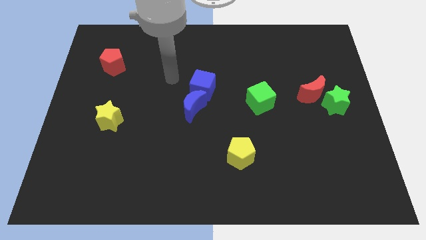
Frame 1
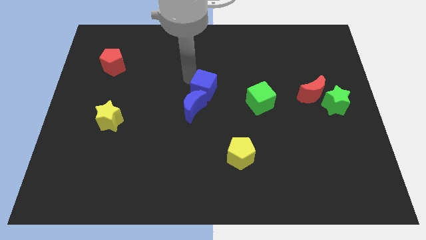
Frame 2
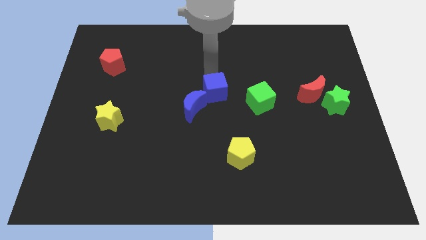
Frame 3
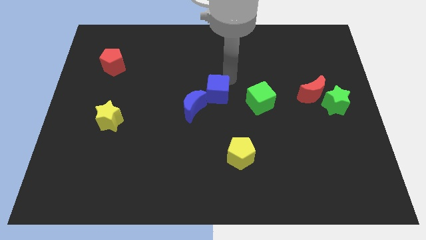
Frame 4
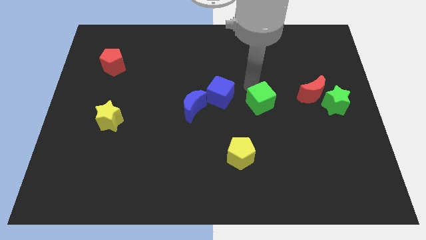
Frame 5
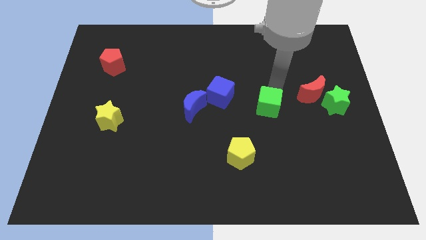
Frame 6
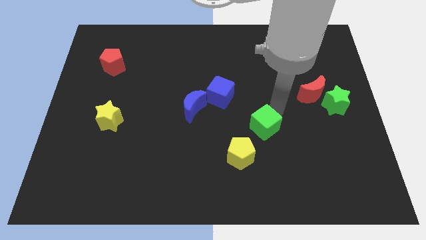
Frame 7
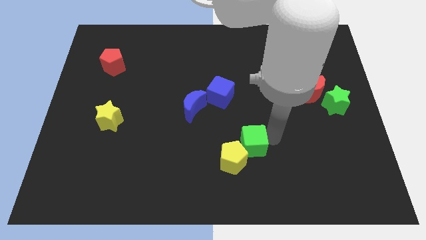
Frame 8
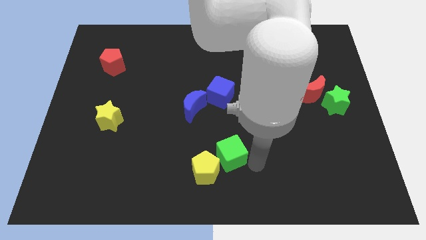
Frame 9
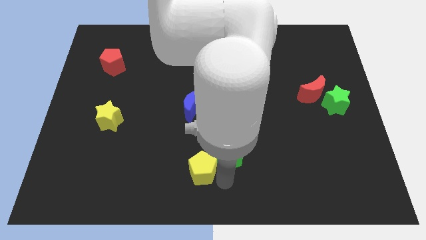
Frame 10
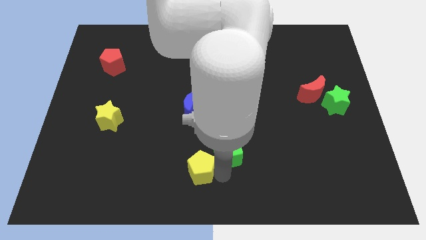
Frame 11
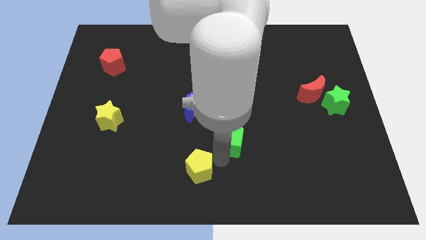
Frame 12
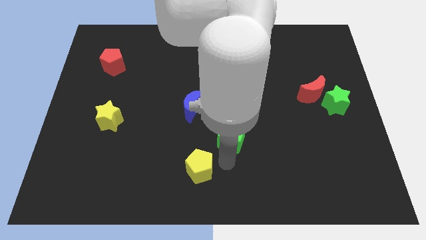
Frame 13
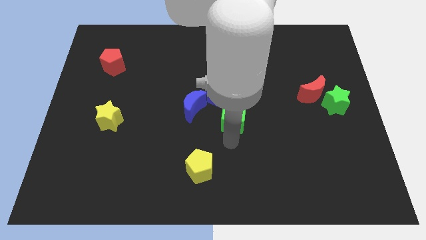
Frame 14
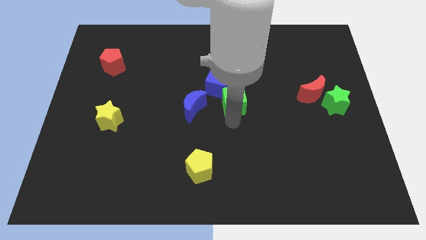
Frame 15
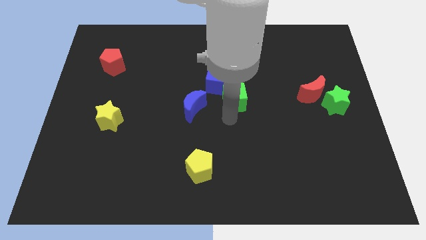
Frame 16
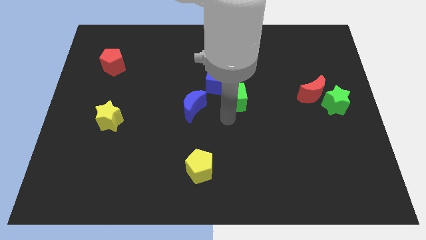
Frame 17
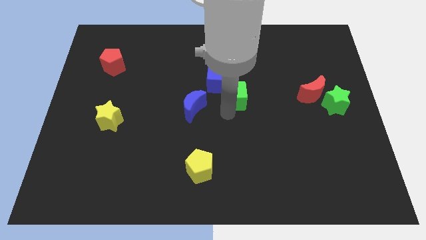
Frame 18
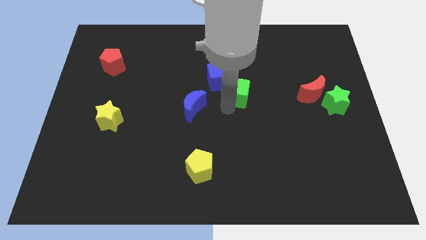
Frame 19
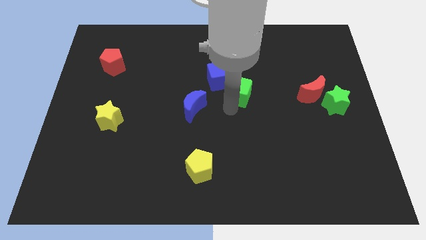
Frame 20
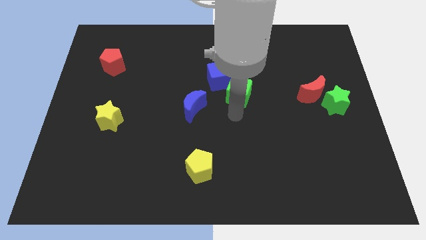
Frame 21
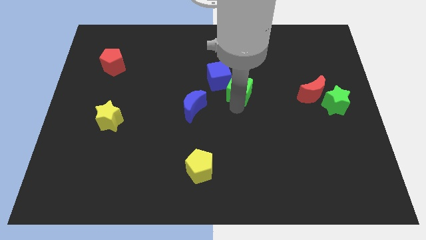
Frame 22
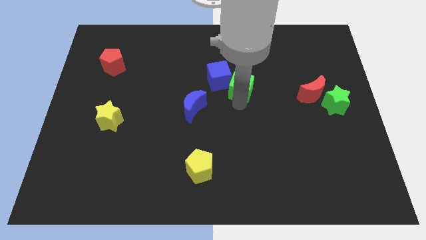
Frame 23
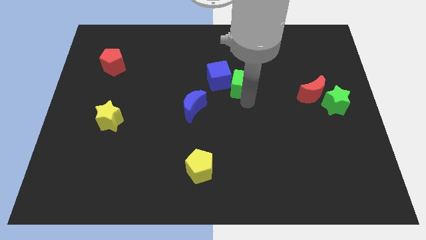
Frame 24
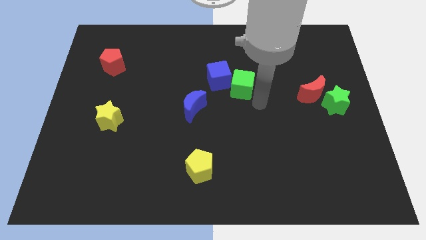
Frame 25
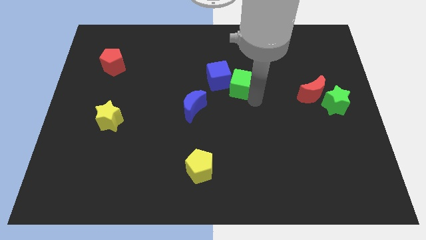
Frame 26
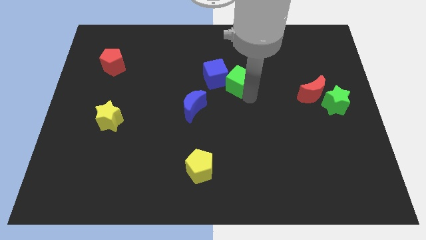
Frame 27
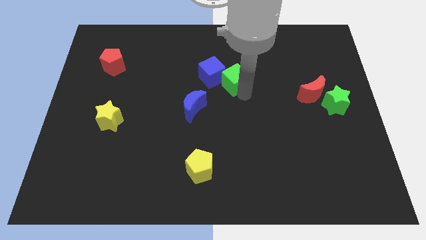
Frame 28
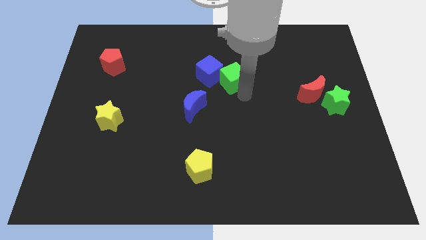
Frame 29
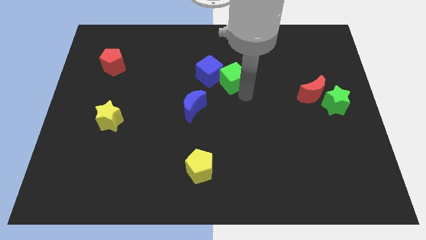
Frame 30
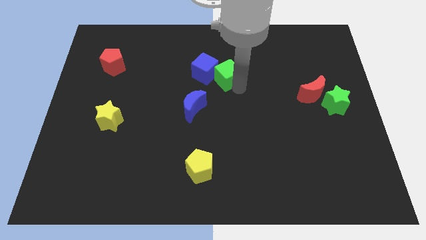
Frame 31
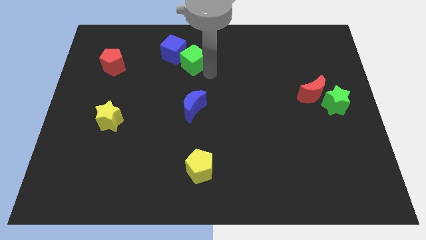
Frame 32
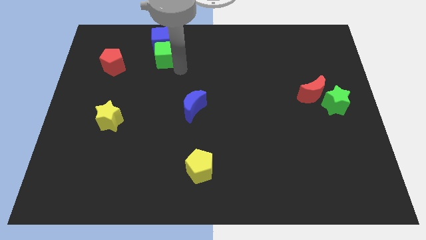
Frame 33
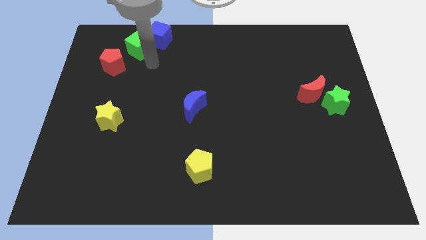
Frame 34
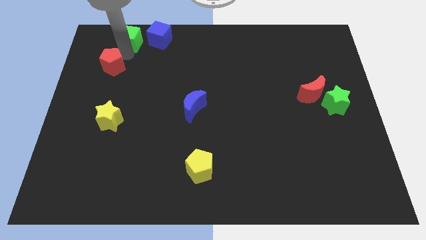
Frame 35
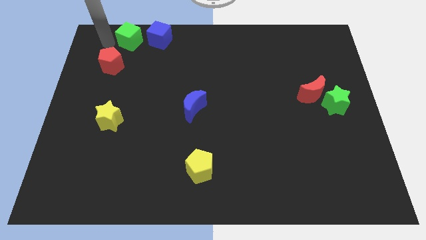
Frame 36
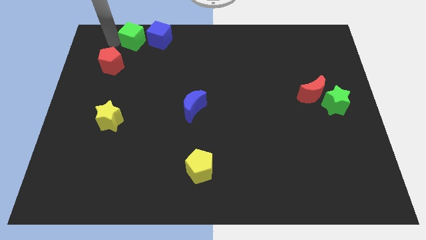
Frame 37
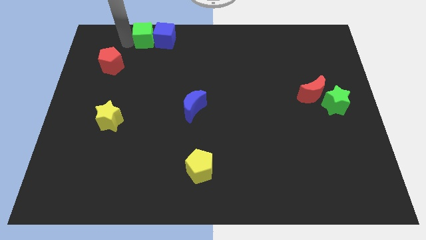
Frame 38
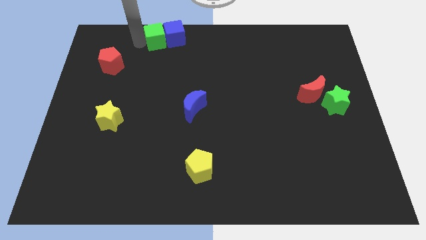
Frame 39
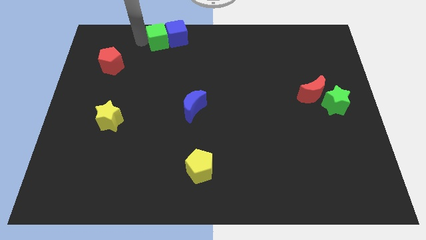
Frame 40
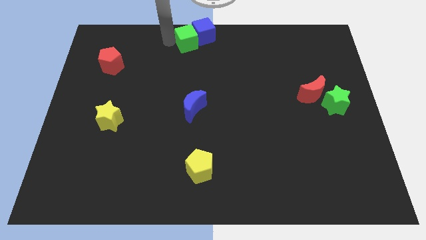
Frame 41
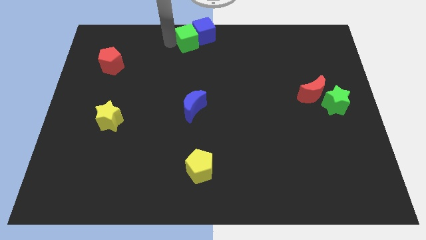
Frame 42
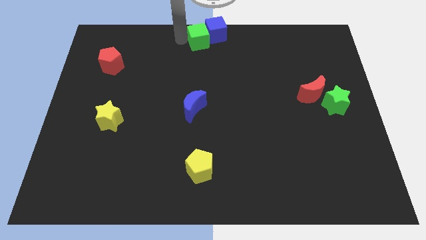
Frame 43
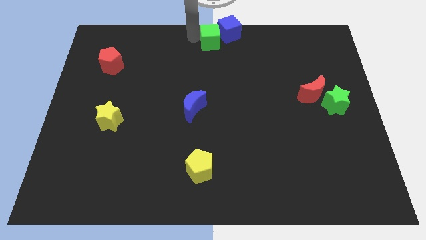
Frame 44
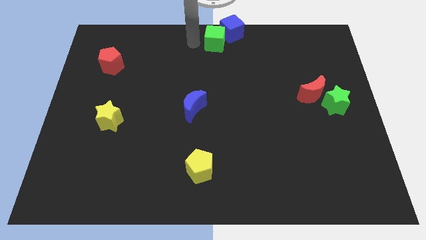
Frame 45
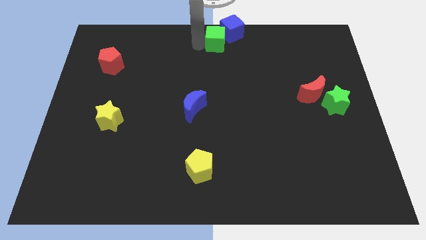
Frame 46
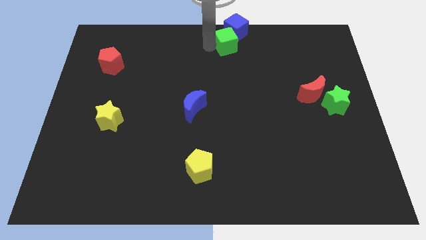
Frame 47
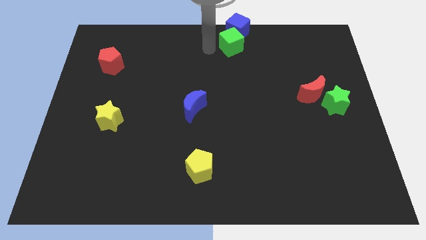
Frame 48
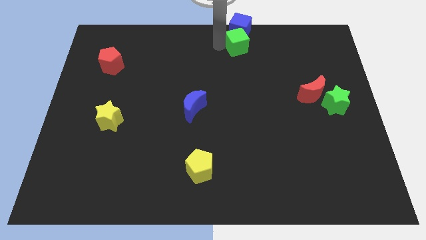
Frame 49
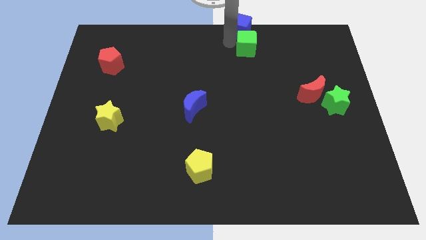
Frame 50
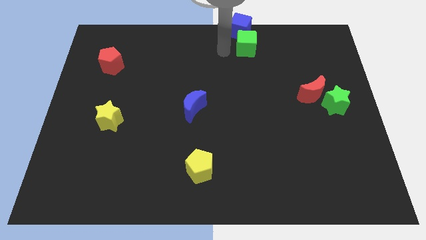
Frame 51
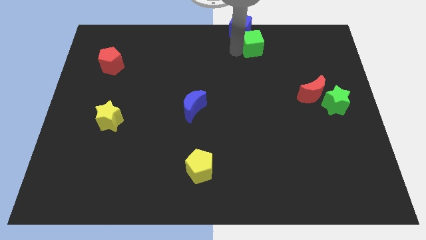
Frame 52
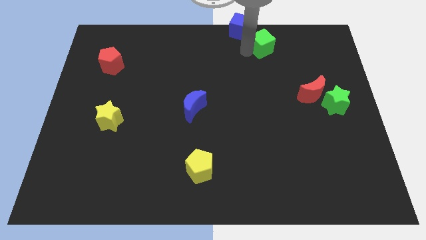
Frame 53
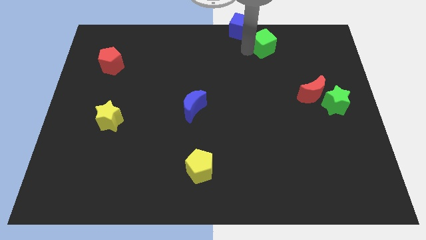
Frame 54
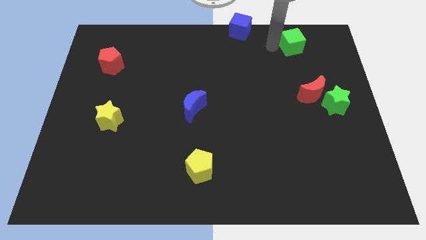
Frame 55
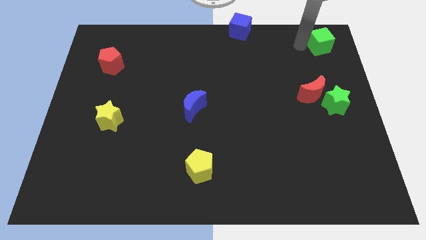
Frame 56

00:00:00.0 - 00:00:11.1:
put the green cube to the top right

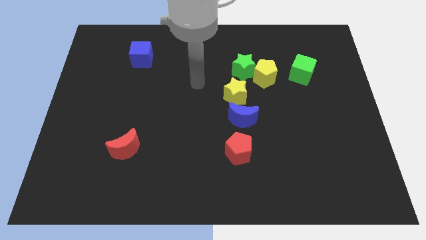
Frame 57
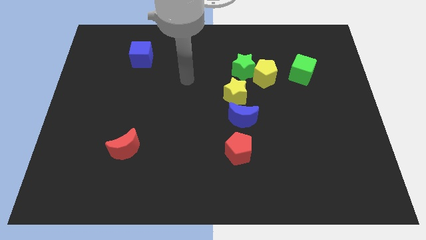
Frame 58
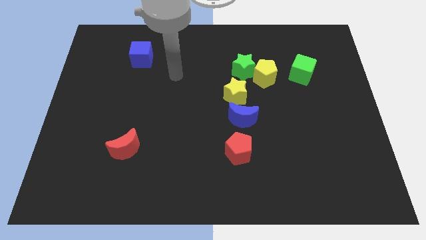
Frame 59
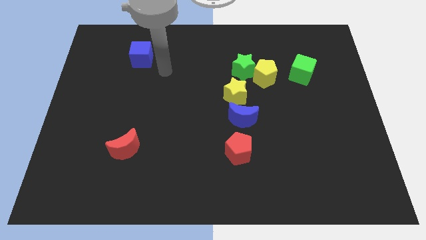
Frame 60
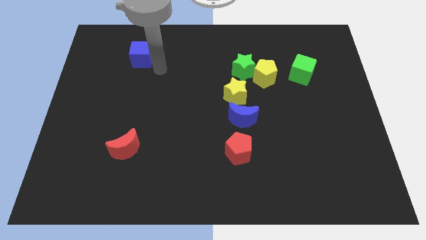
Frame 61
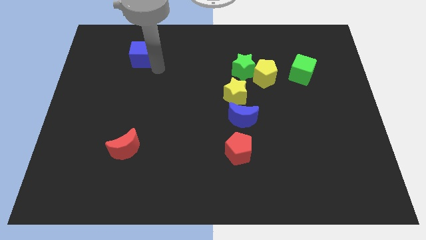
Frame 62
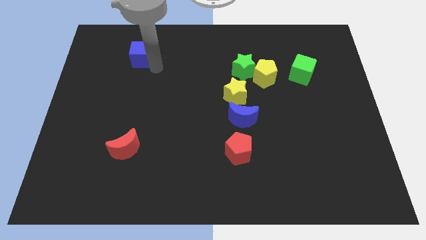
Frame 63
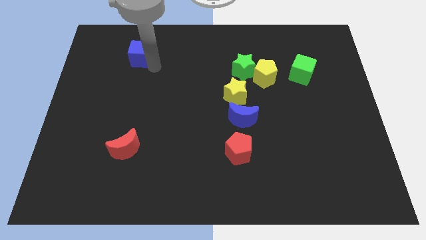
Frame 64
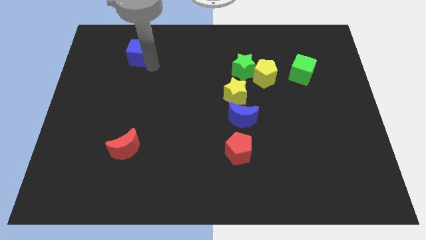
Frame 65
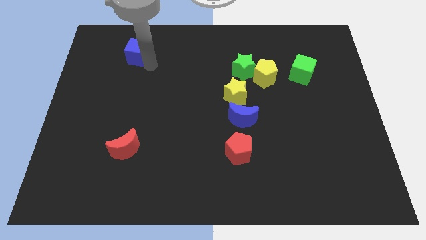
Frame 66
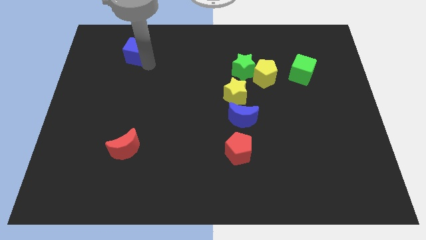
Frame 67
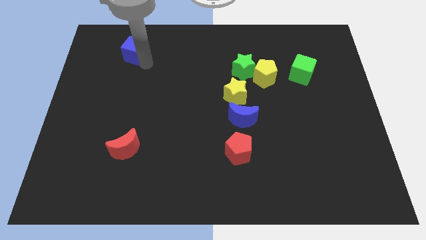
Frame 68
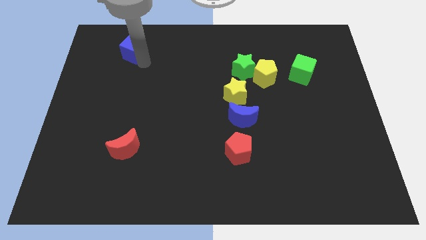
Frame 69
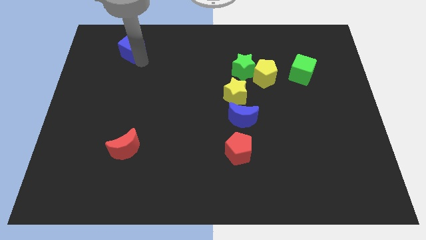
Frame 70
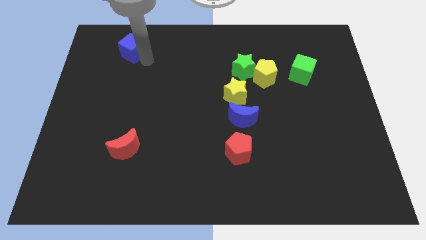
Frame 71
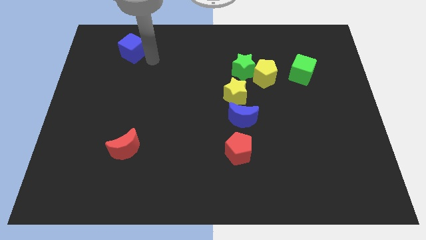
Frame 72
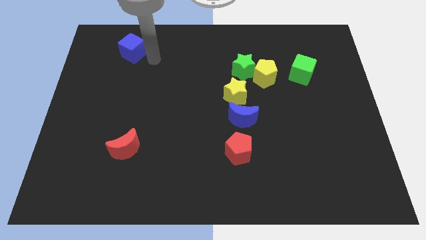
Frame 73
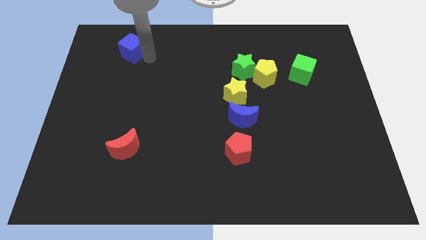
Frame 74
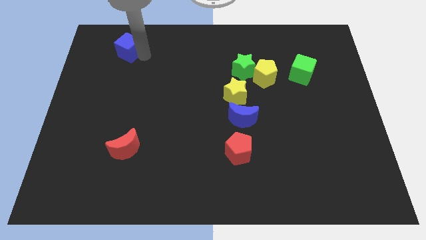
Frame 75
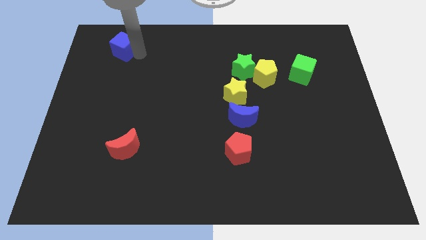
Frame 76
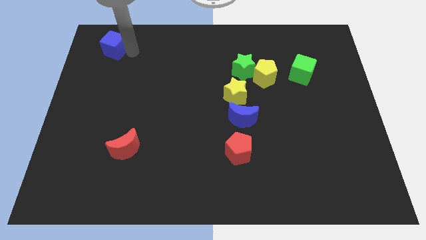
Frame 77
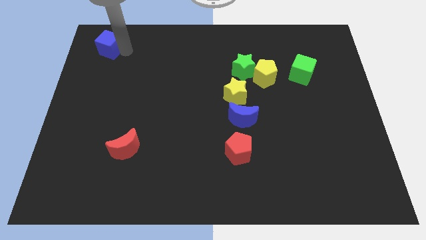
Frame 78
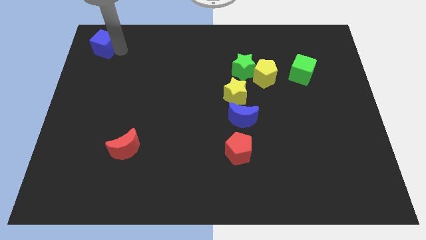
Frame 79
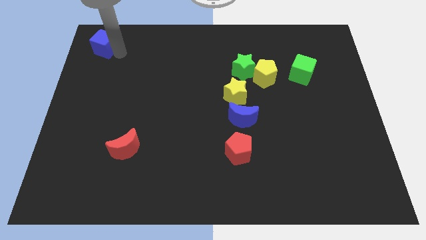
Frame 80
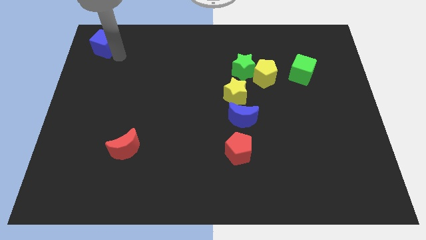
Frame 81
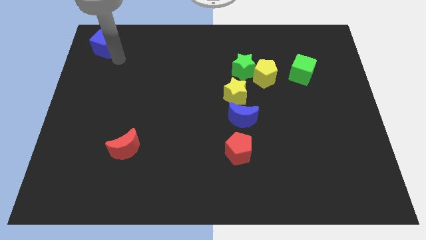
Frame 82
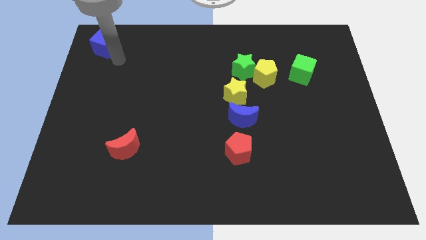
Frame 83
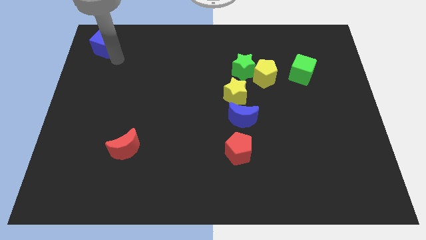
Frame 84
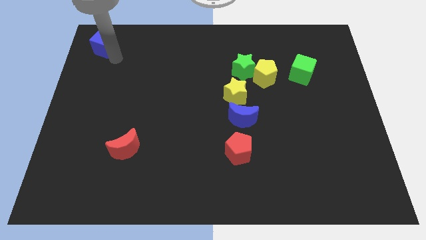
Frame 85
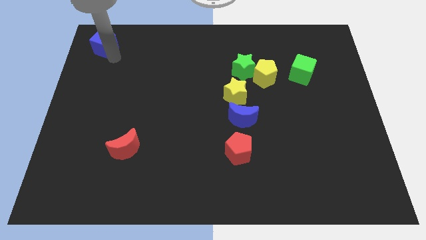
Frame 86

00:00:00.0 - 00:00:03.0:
move the blue cube to the top left of the board
